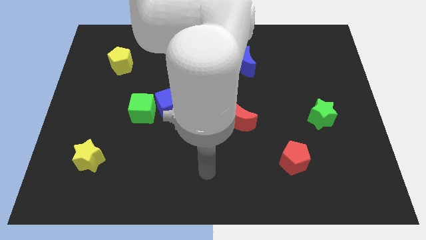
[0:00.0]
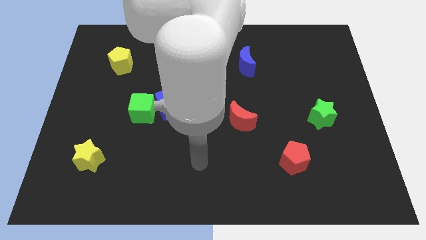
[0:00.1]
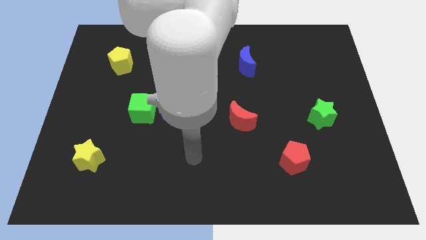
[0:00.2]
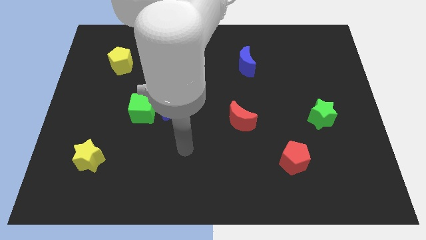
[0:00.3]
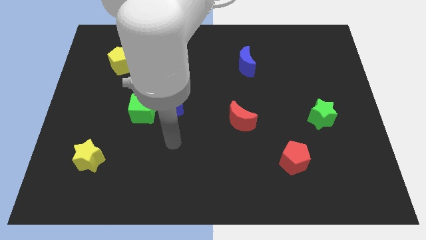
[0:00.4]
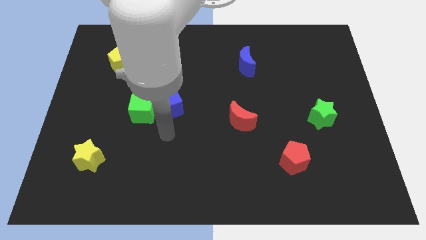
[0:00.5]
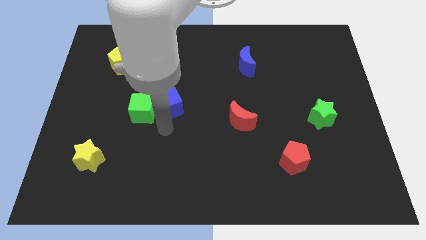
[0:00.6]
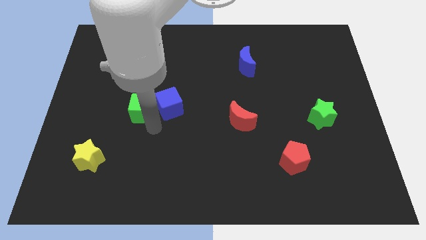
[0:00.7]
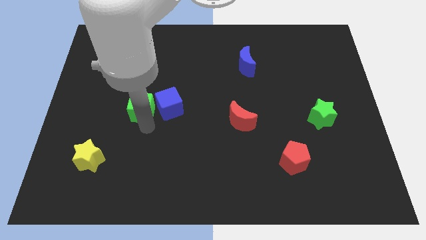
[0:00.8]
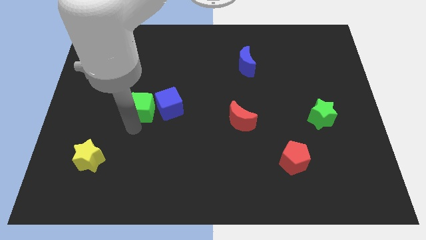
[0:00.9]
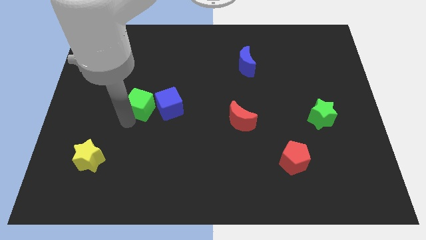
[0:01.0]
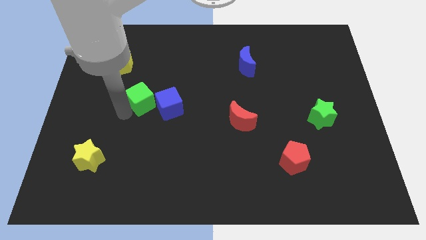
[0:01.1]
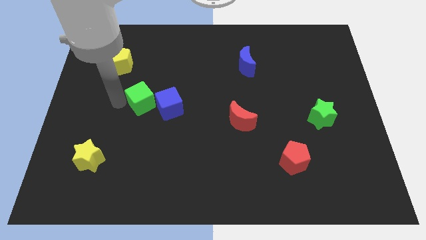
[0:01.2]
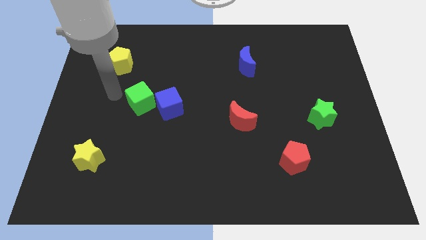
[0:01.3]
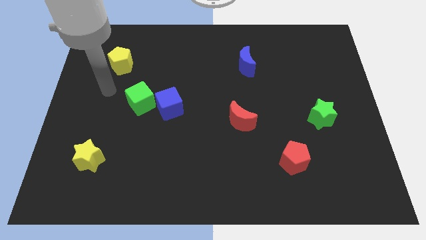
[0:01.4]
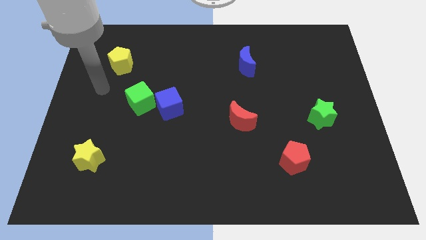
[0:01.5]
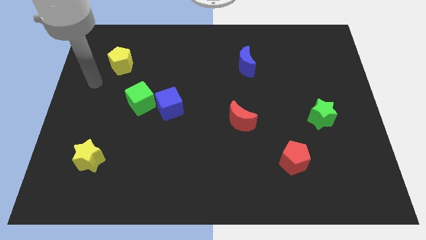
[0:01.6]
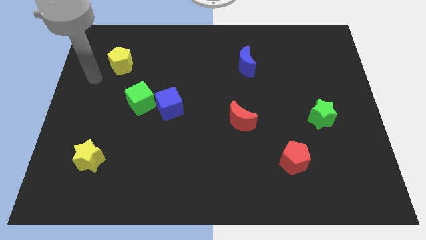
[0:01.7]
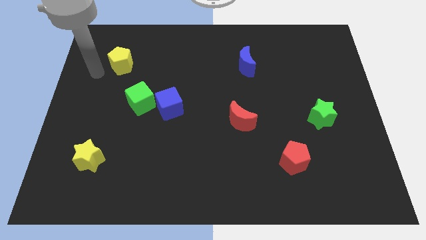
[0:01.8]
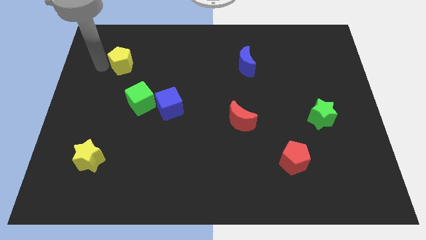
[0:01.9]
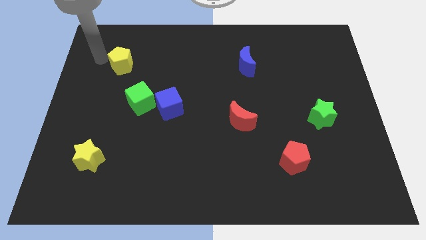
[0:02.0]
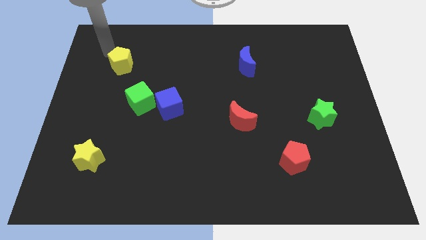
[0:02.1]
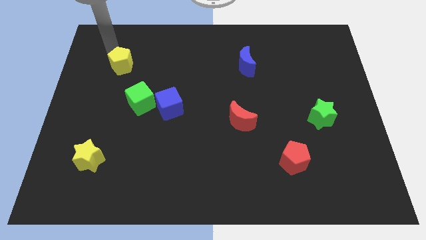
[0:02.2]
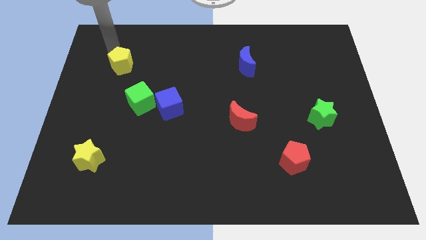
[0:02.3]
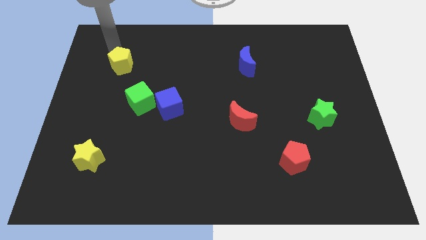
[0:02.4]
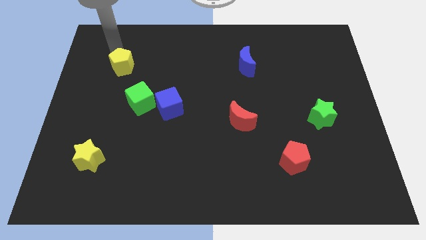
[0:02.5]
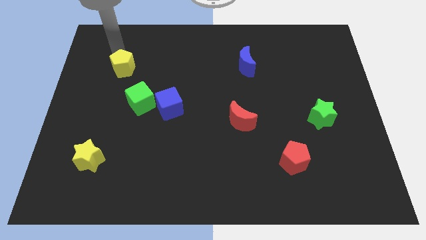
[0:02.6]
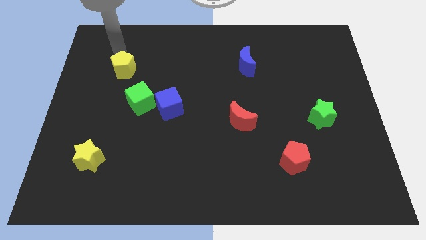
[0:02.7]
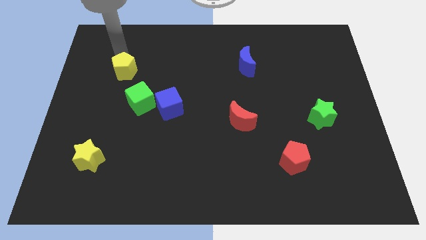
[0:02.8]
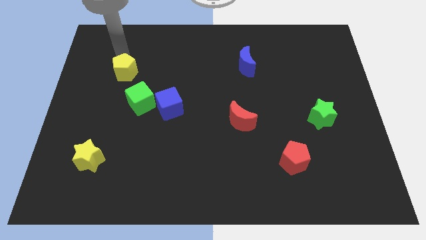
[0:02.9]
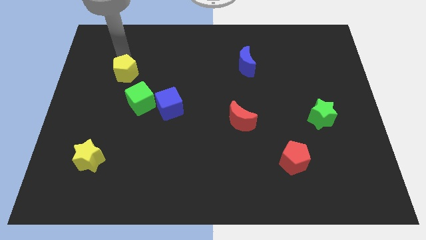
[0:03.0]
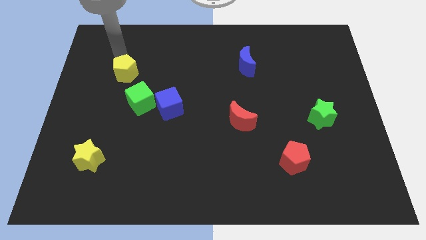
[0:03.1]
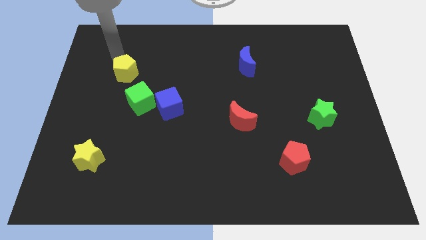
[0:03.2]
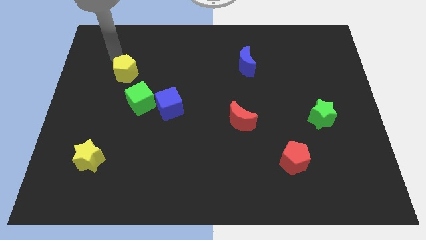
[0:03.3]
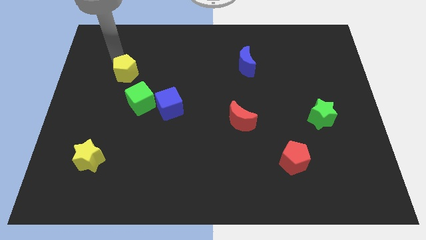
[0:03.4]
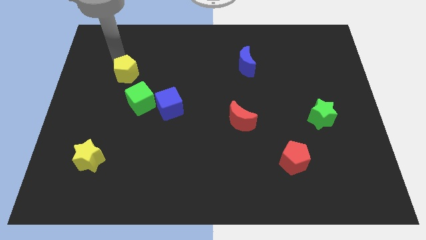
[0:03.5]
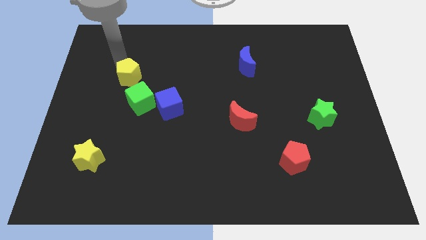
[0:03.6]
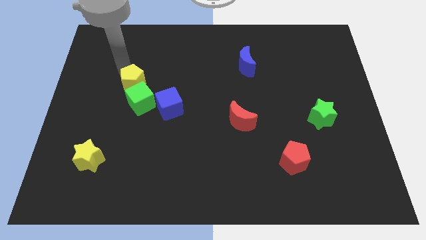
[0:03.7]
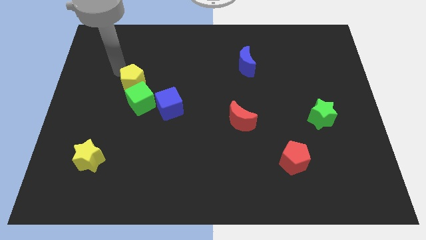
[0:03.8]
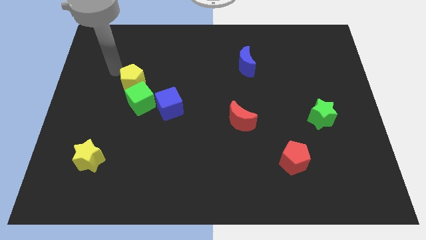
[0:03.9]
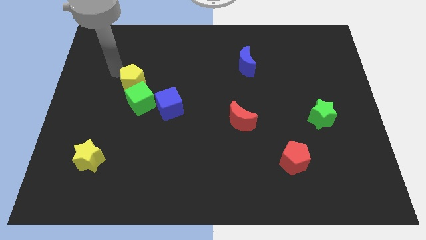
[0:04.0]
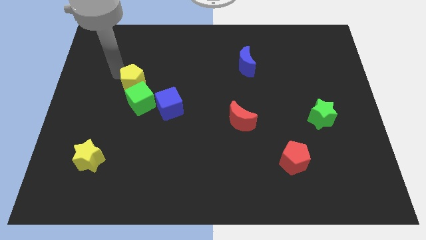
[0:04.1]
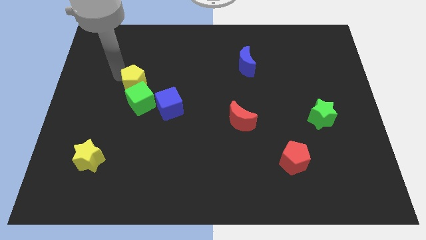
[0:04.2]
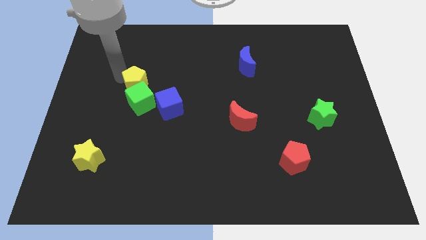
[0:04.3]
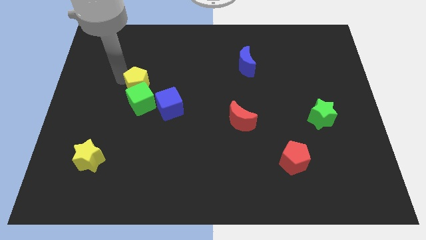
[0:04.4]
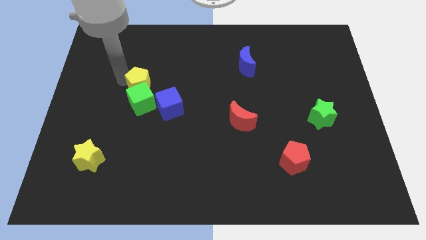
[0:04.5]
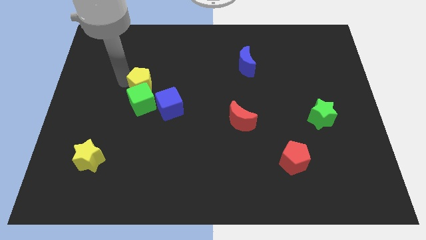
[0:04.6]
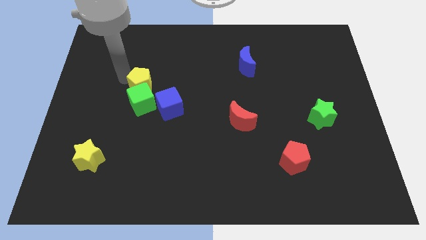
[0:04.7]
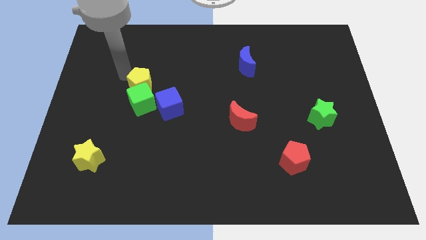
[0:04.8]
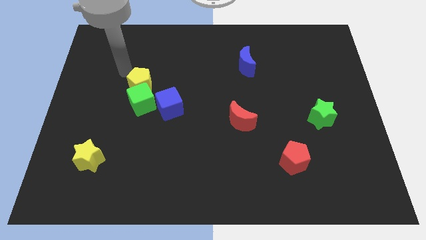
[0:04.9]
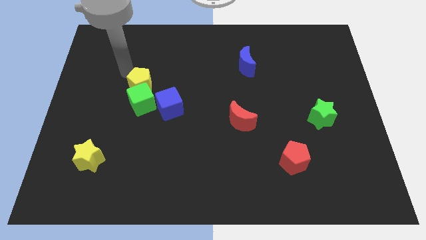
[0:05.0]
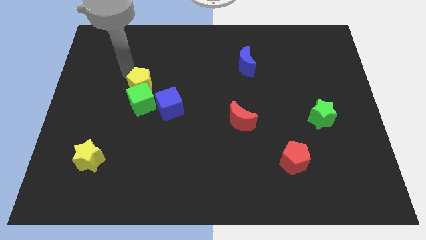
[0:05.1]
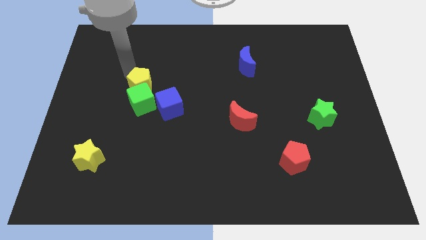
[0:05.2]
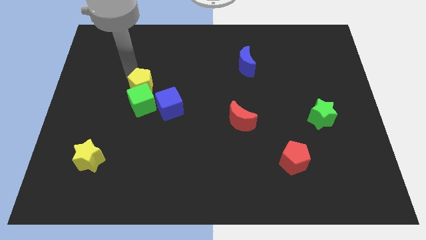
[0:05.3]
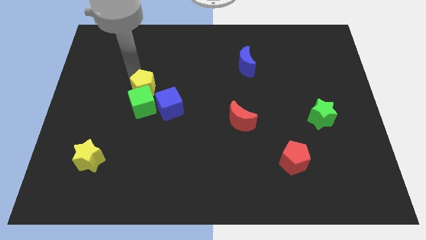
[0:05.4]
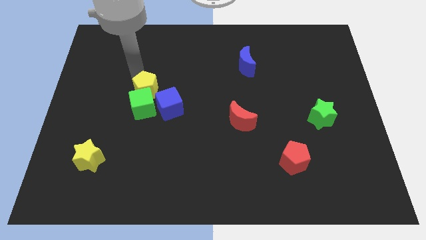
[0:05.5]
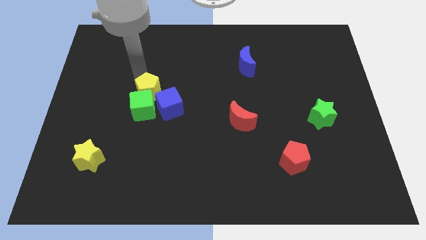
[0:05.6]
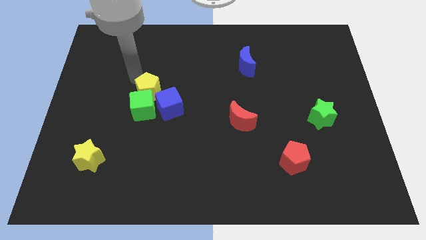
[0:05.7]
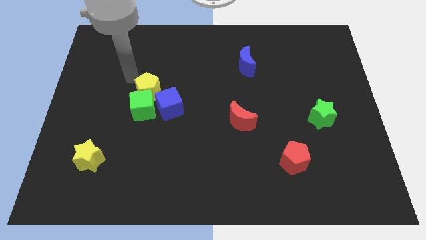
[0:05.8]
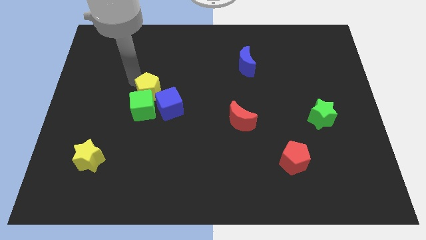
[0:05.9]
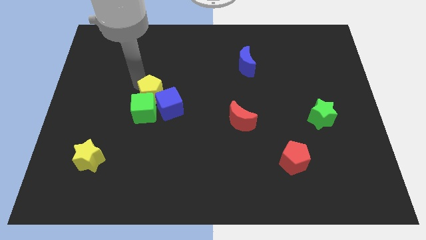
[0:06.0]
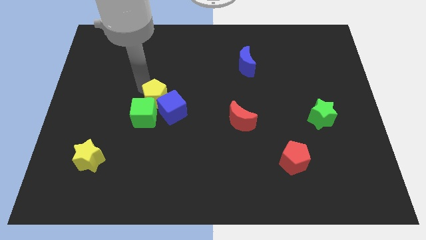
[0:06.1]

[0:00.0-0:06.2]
put the yellow pentagon to the blue cube

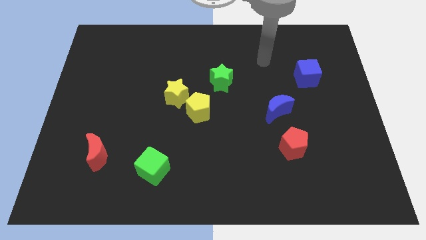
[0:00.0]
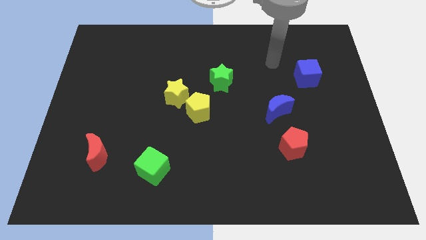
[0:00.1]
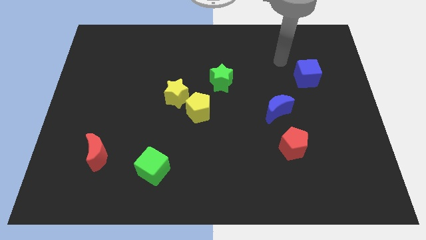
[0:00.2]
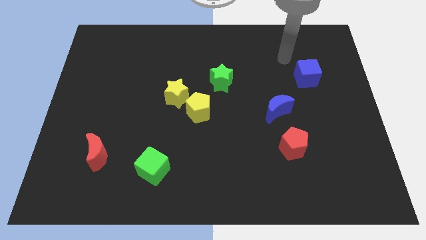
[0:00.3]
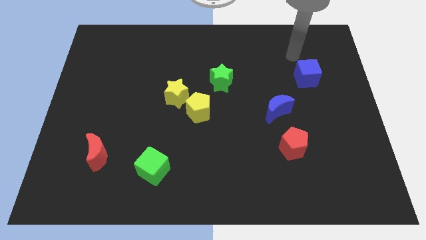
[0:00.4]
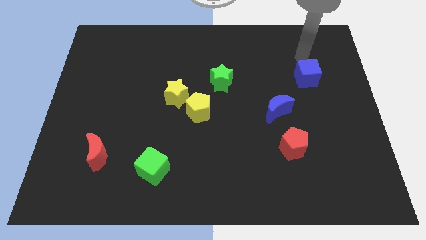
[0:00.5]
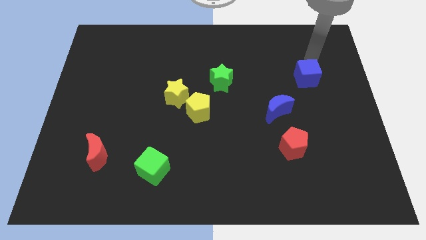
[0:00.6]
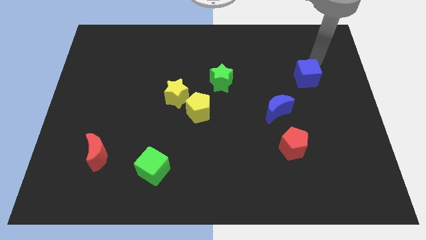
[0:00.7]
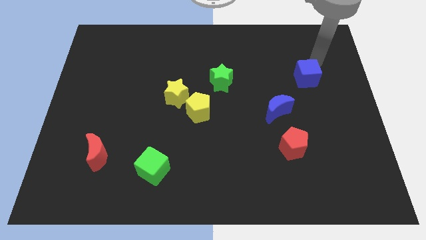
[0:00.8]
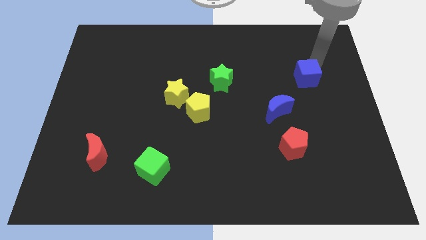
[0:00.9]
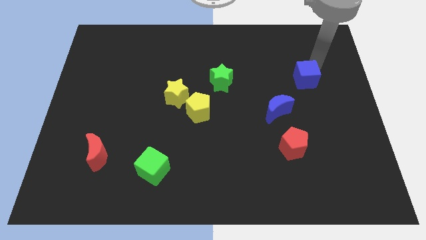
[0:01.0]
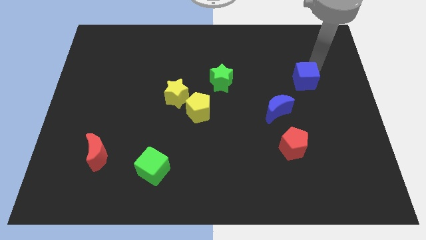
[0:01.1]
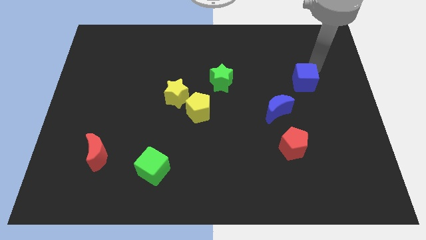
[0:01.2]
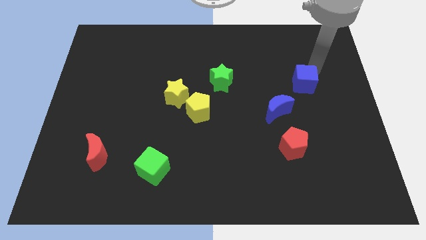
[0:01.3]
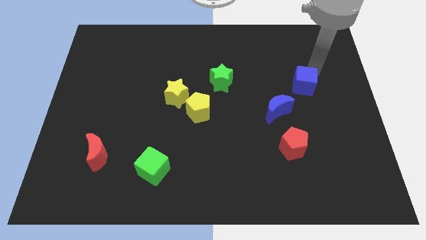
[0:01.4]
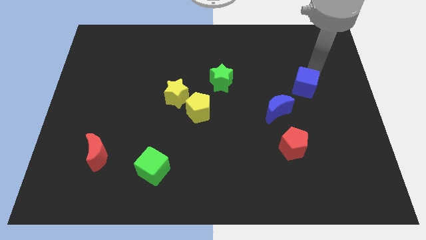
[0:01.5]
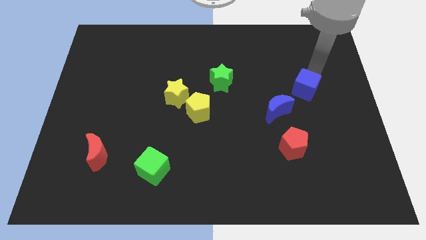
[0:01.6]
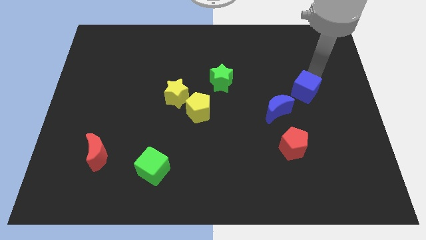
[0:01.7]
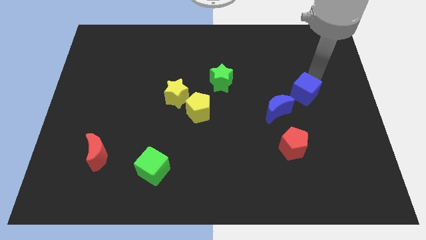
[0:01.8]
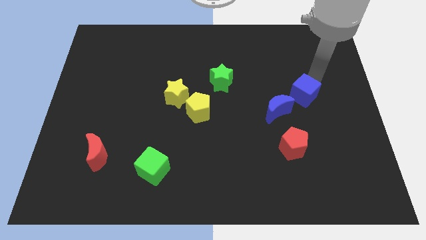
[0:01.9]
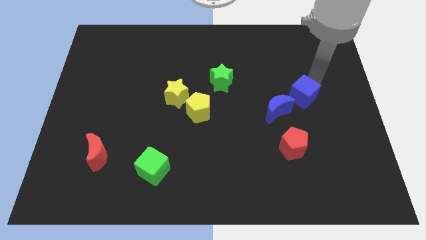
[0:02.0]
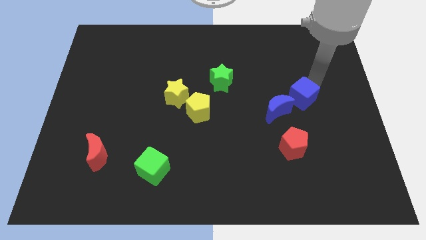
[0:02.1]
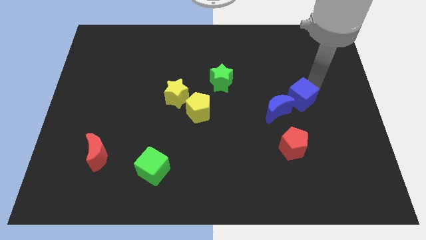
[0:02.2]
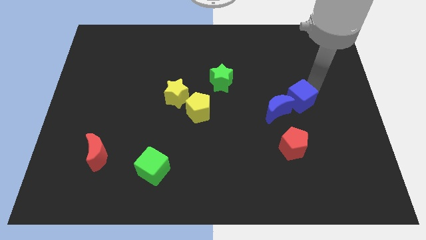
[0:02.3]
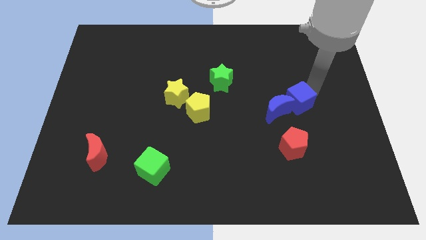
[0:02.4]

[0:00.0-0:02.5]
put the blue cube to the blue moon
